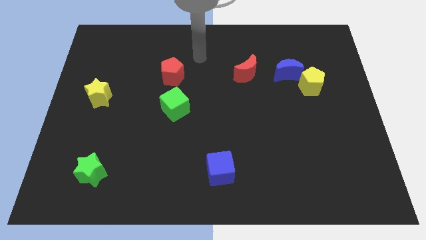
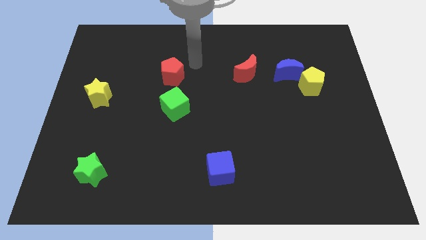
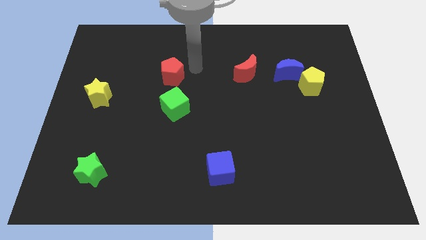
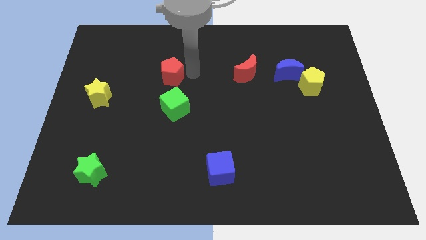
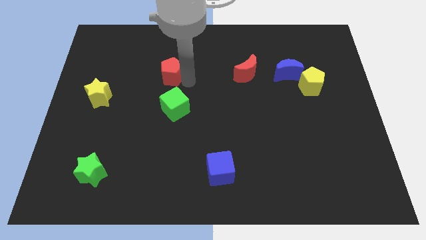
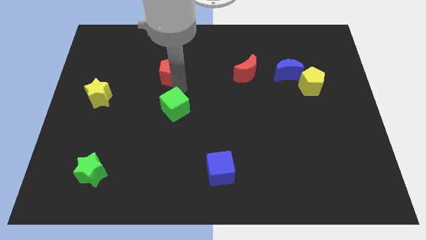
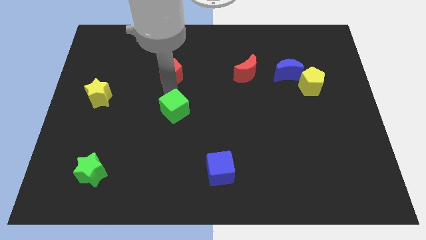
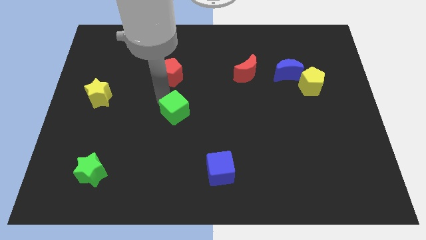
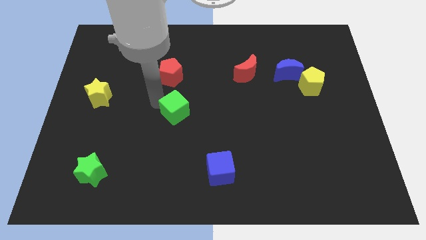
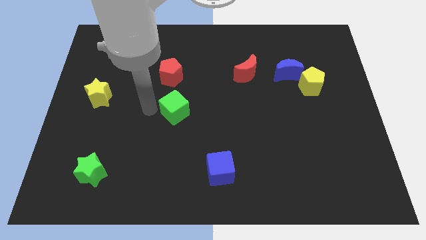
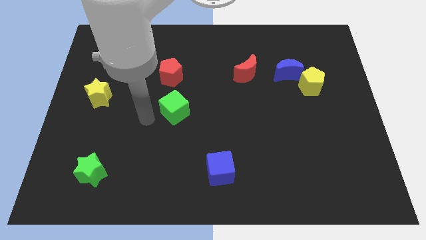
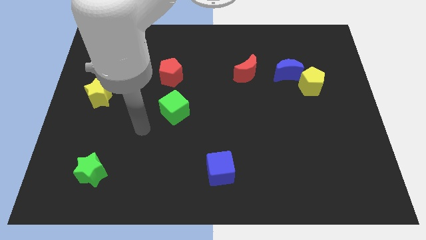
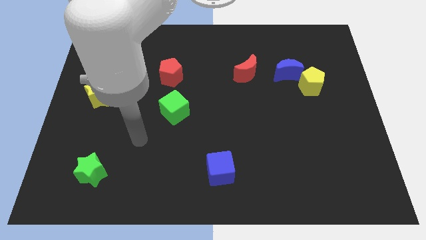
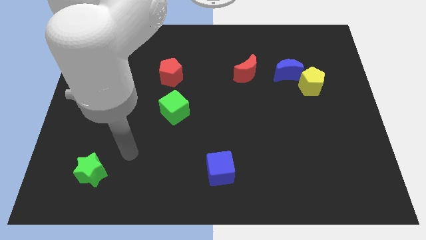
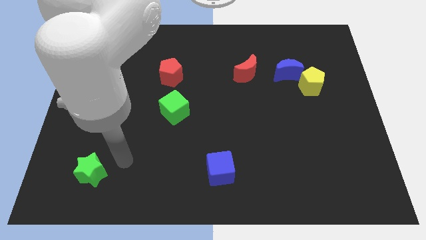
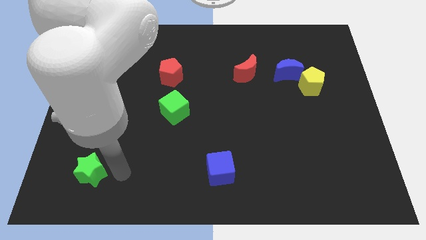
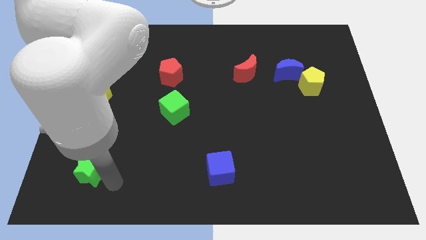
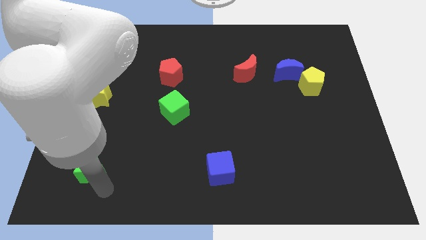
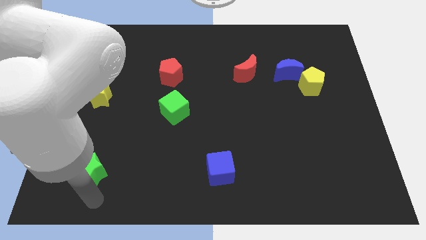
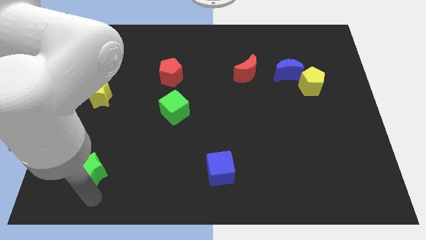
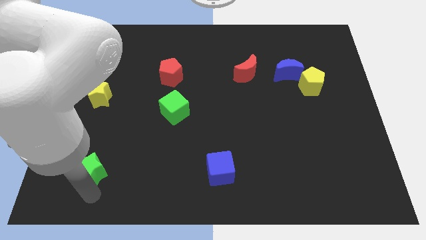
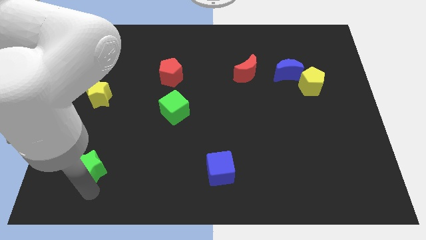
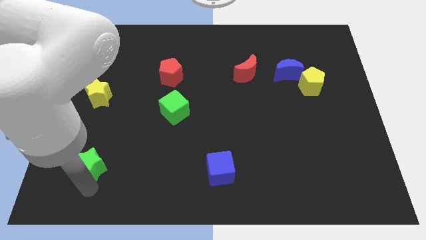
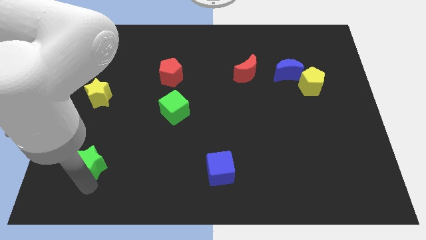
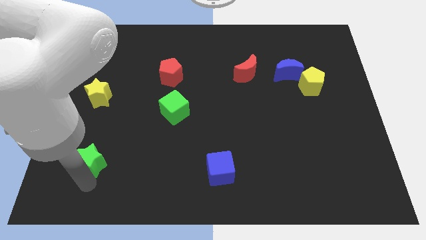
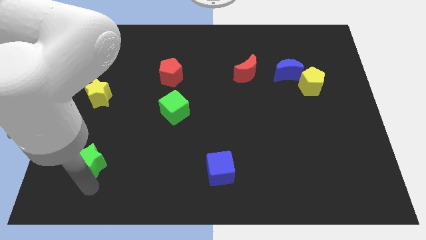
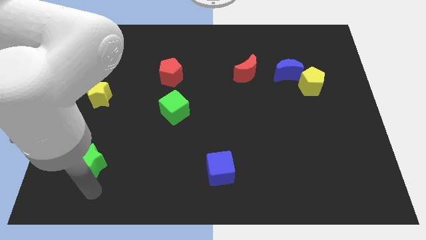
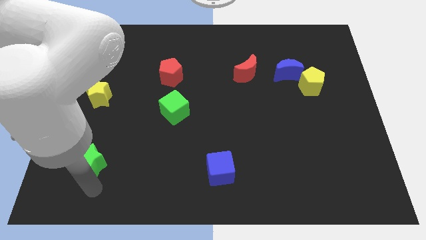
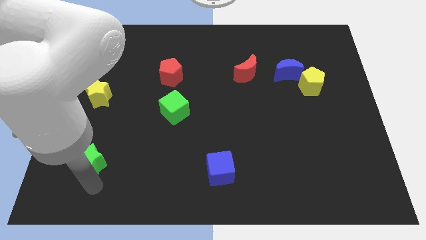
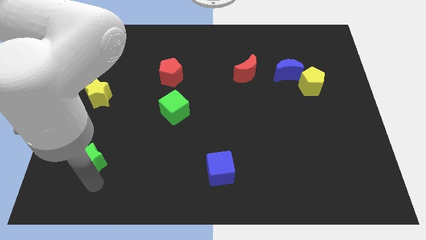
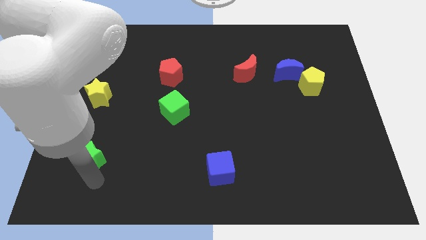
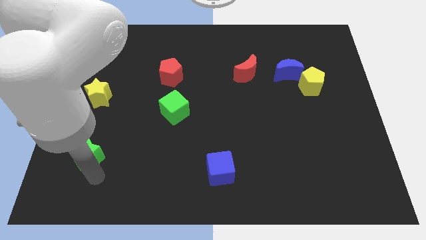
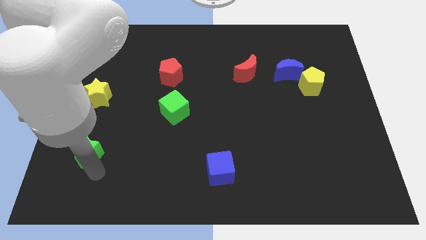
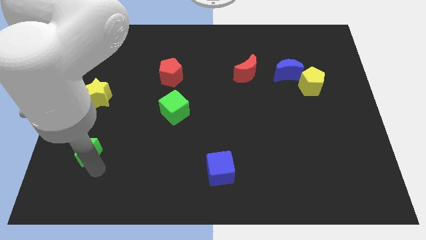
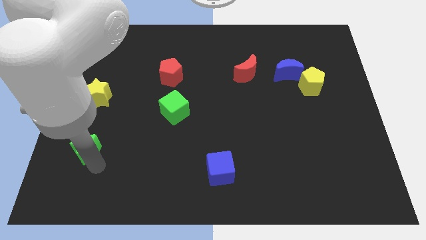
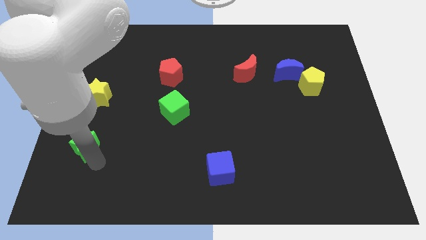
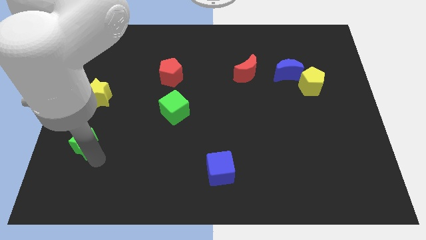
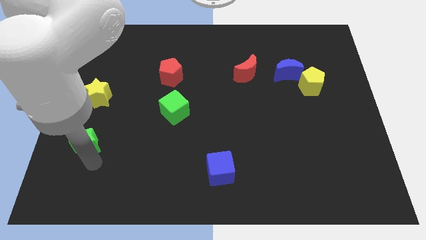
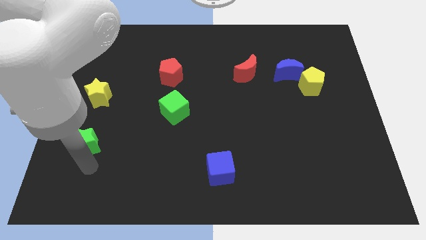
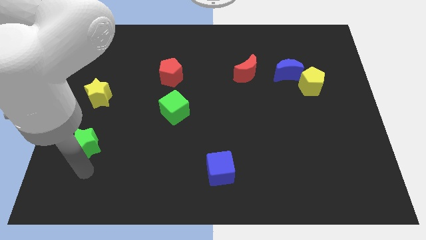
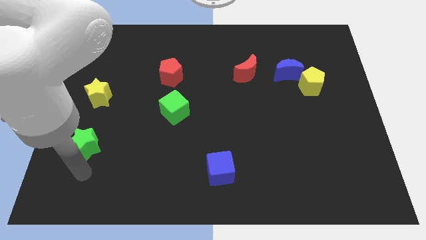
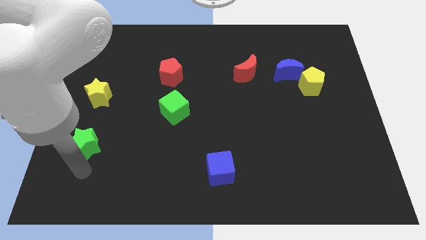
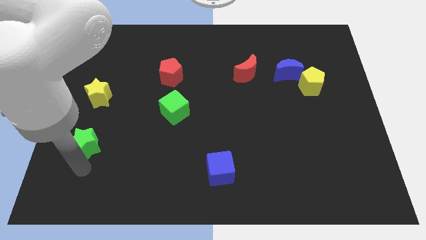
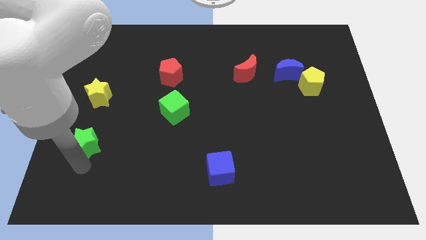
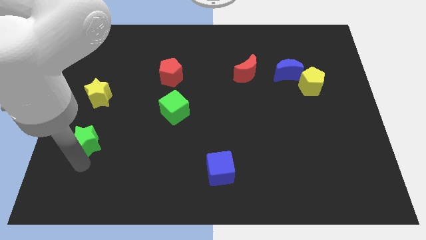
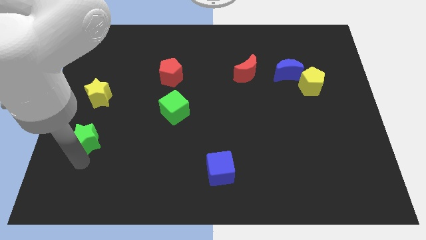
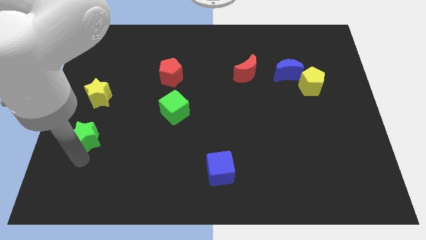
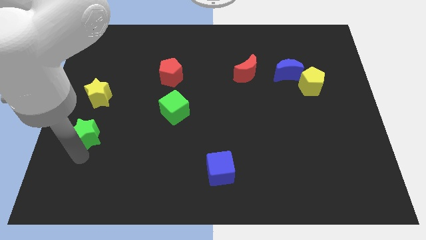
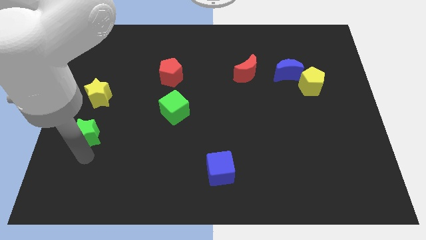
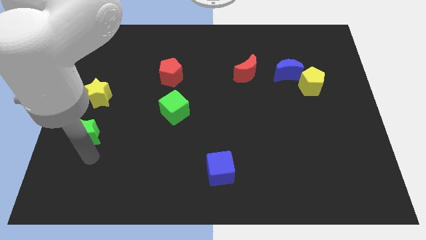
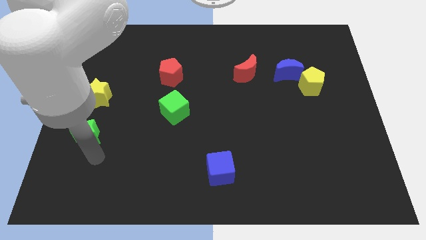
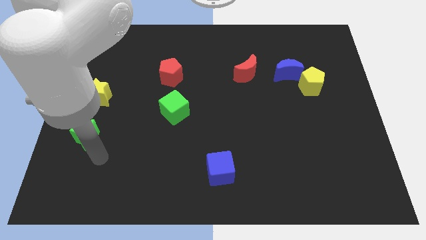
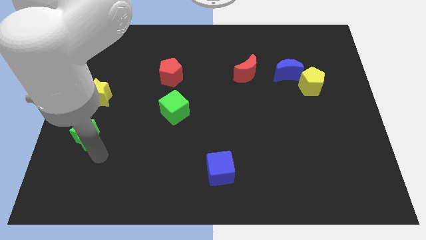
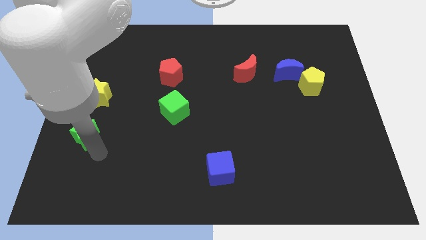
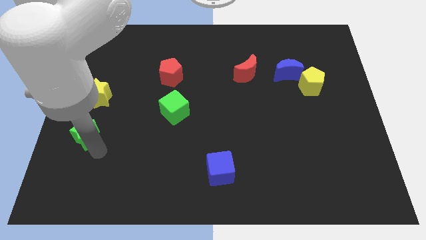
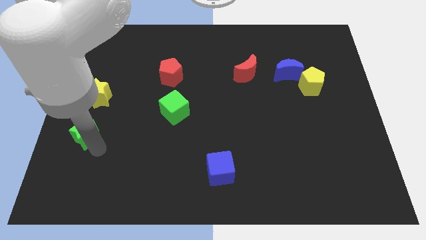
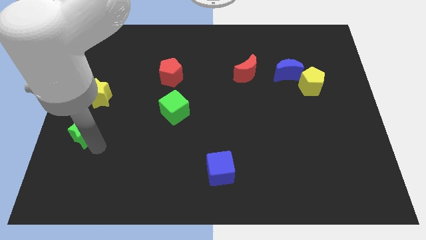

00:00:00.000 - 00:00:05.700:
push the green star to the center left
